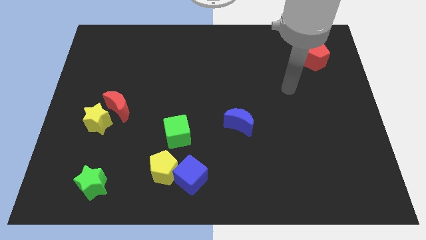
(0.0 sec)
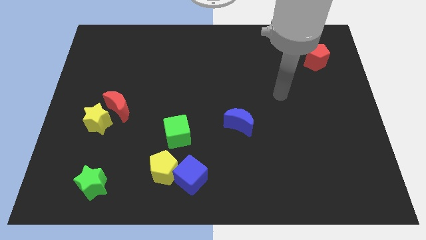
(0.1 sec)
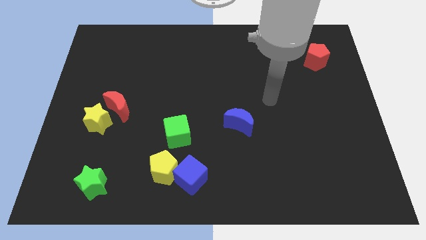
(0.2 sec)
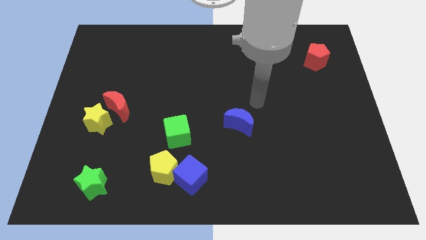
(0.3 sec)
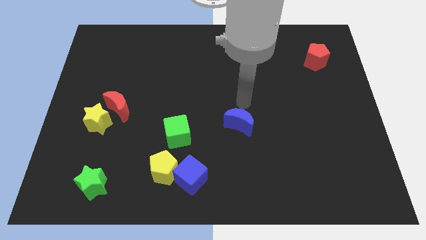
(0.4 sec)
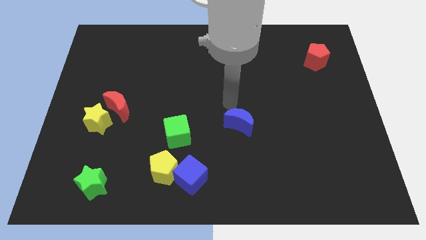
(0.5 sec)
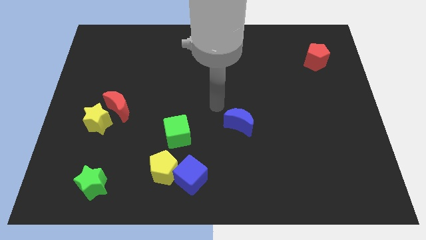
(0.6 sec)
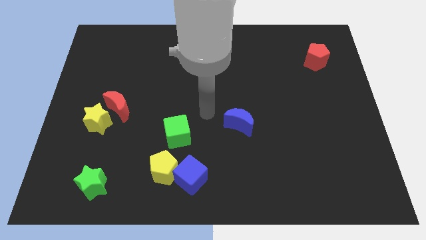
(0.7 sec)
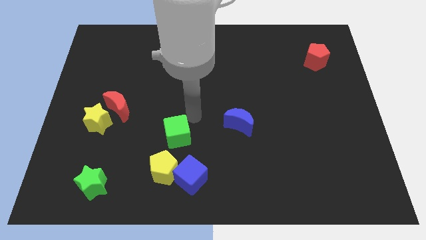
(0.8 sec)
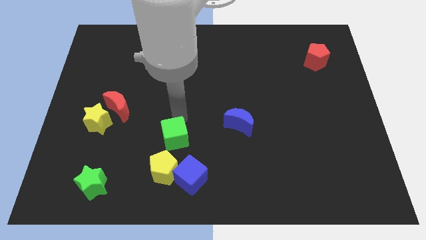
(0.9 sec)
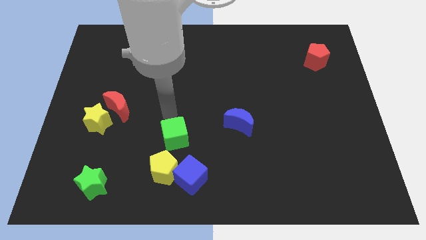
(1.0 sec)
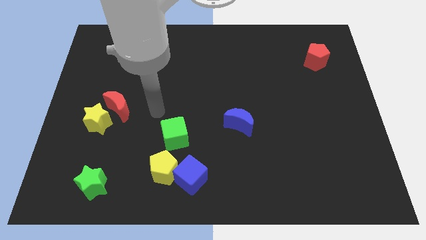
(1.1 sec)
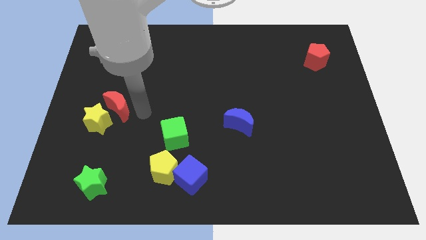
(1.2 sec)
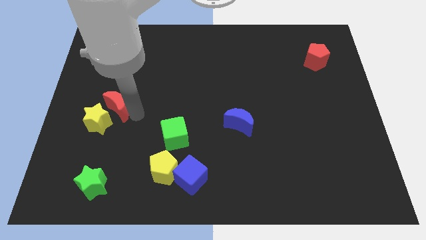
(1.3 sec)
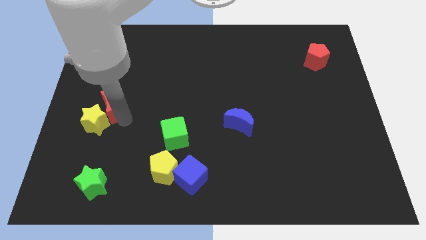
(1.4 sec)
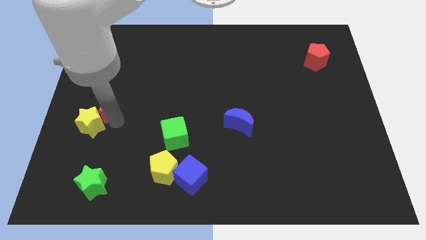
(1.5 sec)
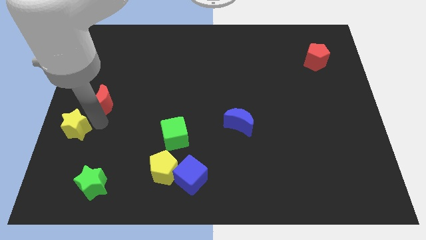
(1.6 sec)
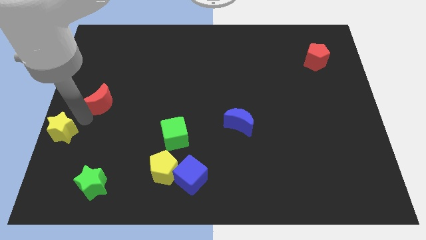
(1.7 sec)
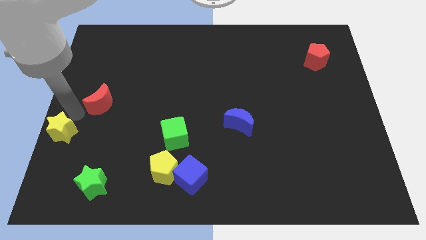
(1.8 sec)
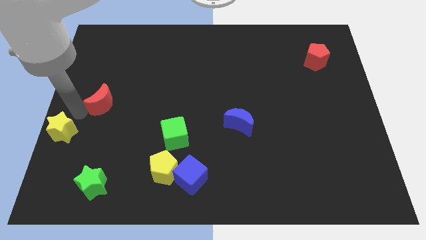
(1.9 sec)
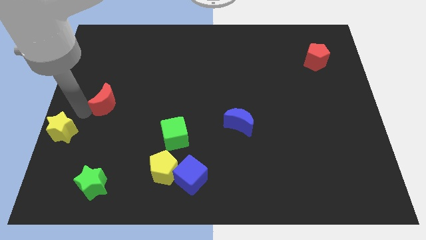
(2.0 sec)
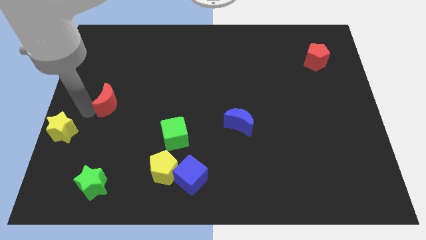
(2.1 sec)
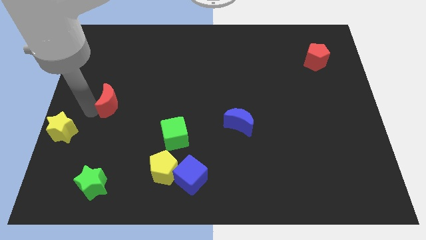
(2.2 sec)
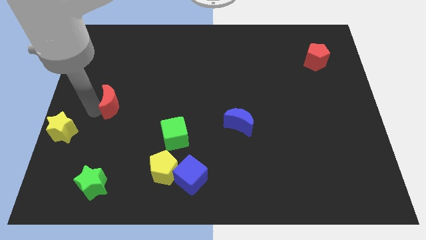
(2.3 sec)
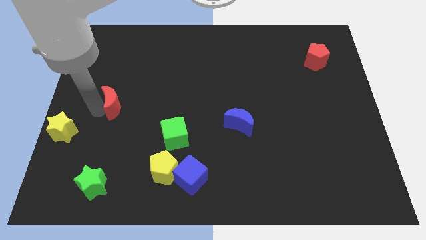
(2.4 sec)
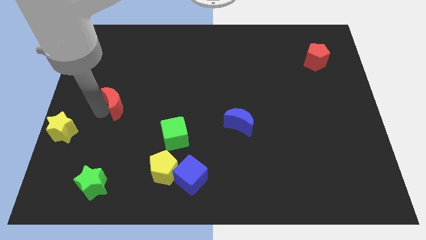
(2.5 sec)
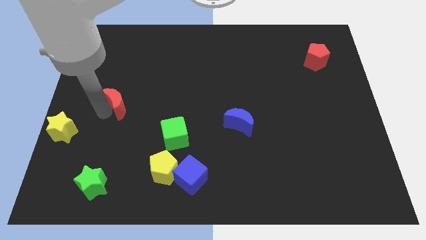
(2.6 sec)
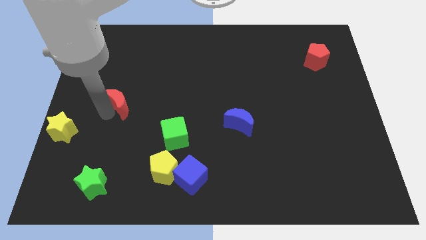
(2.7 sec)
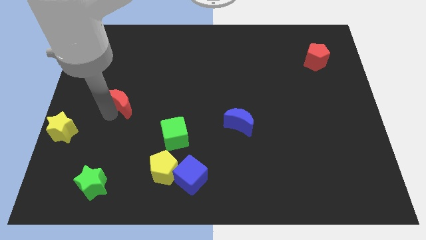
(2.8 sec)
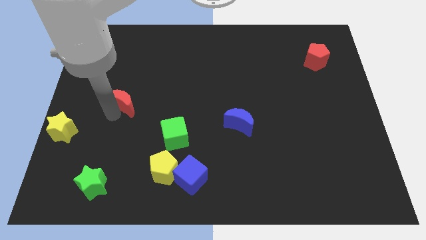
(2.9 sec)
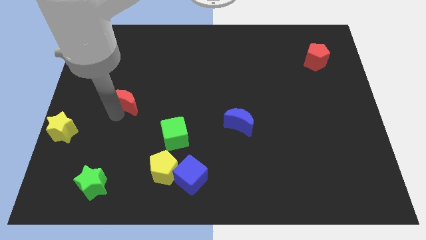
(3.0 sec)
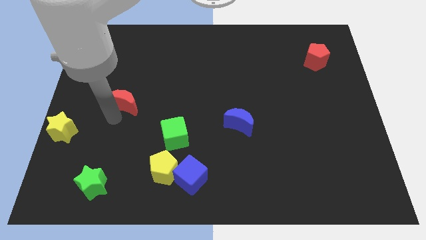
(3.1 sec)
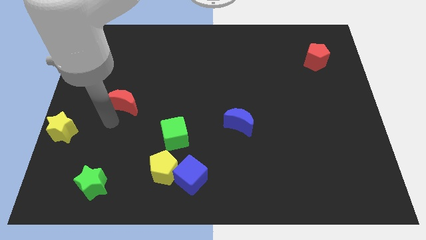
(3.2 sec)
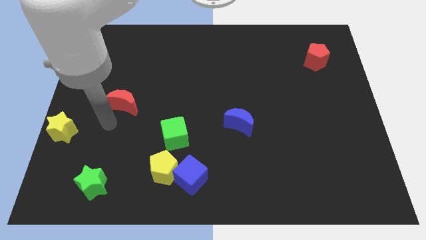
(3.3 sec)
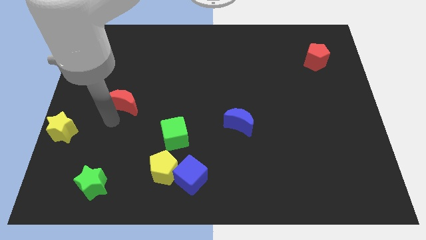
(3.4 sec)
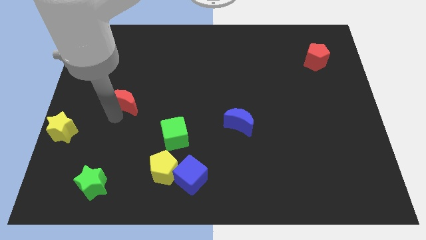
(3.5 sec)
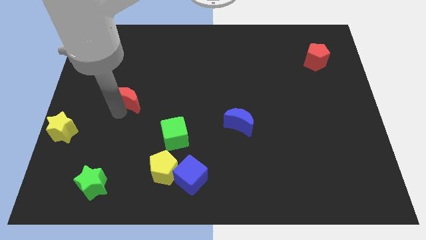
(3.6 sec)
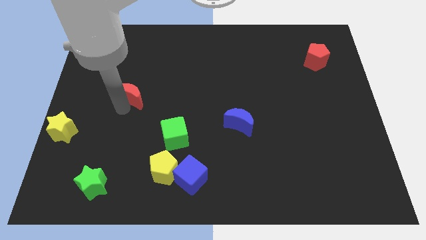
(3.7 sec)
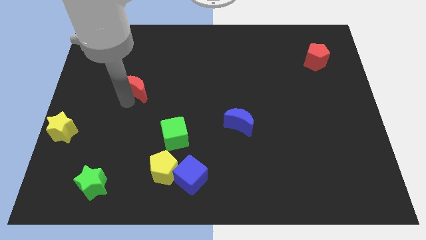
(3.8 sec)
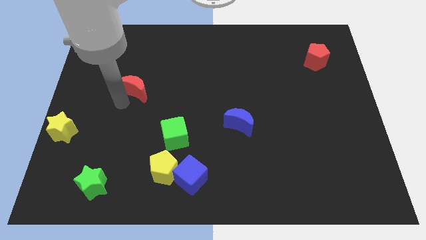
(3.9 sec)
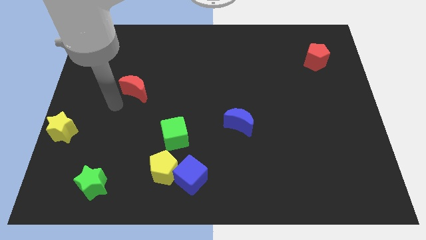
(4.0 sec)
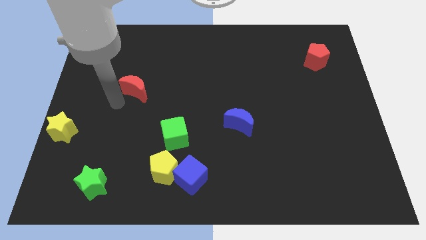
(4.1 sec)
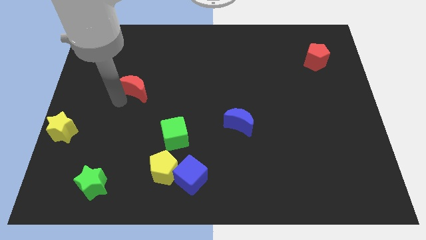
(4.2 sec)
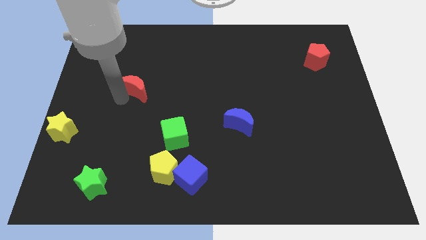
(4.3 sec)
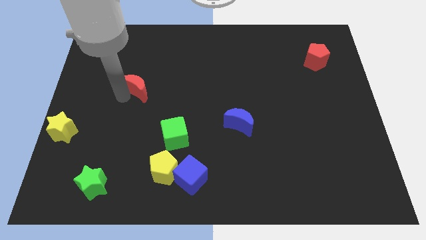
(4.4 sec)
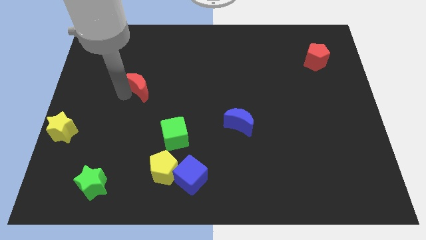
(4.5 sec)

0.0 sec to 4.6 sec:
push the red moon upwards and right a little bit

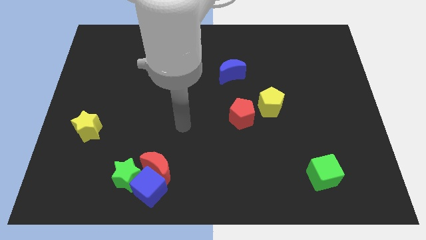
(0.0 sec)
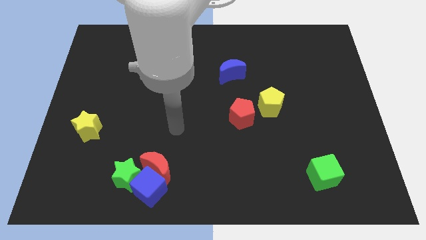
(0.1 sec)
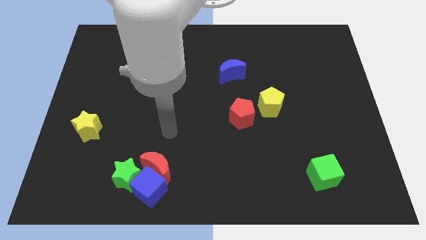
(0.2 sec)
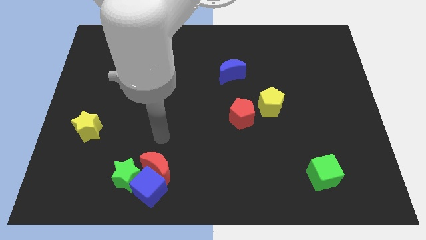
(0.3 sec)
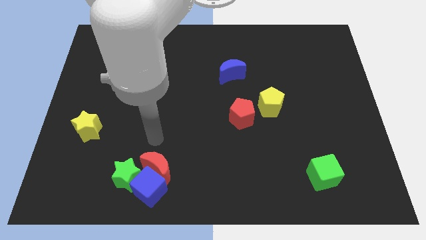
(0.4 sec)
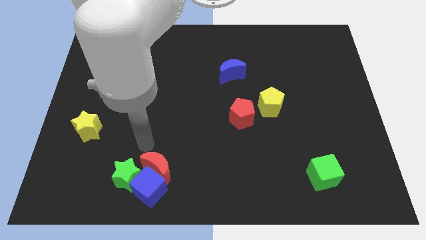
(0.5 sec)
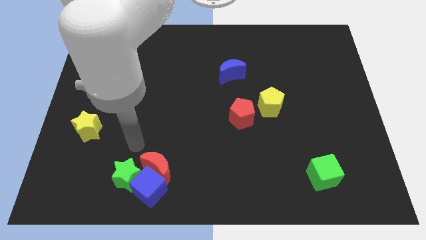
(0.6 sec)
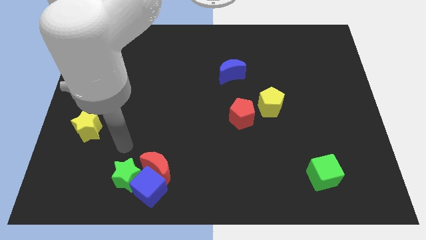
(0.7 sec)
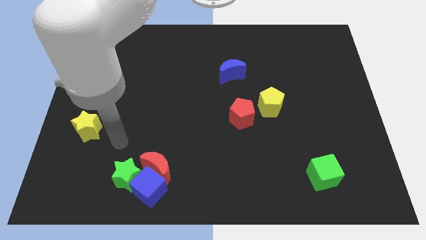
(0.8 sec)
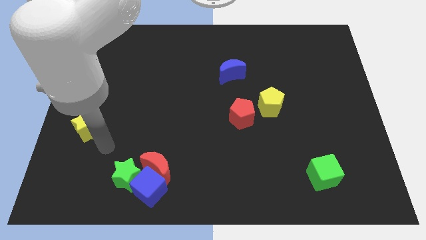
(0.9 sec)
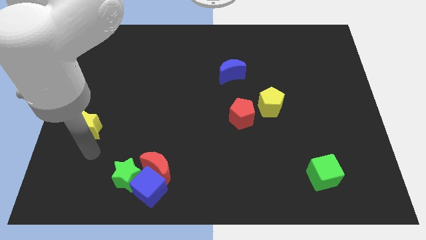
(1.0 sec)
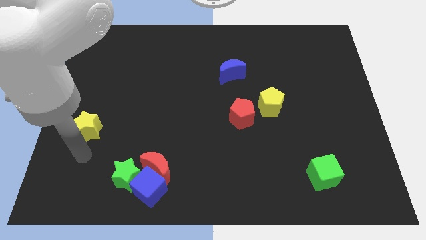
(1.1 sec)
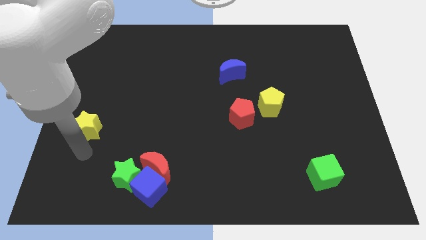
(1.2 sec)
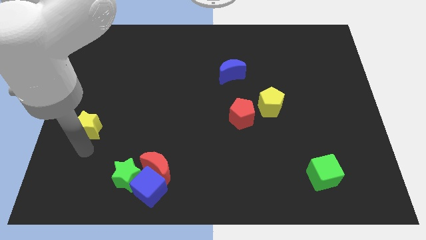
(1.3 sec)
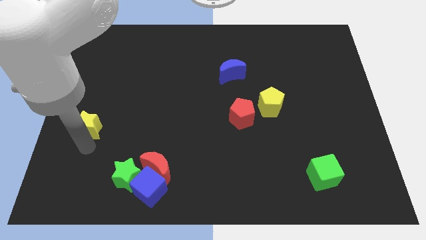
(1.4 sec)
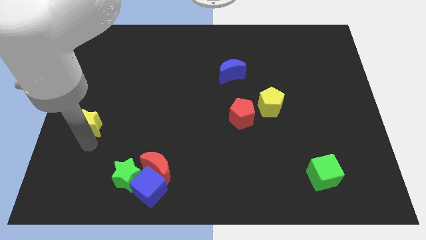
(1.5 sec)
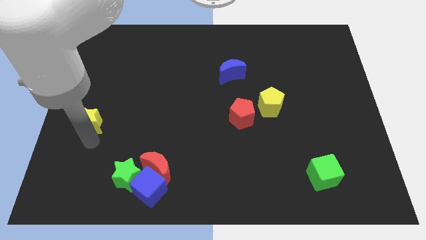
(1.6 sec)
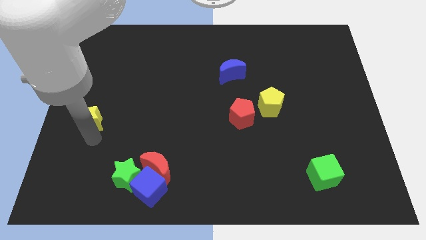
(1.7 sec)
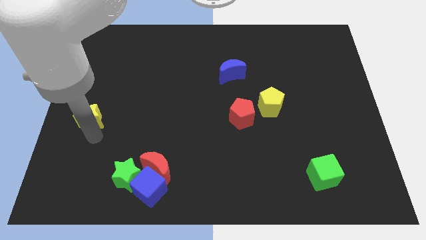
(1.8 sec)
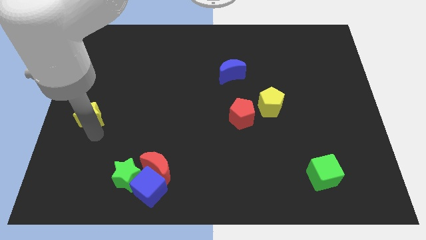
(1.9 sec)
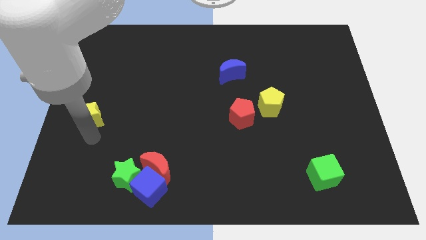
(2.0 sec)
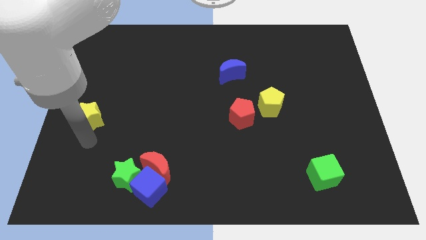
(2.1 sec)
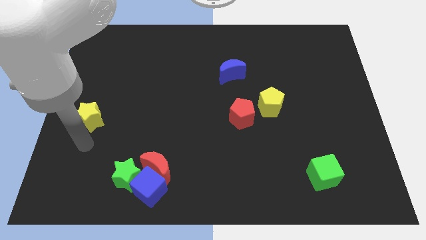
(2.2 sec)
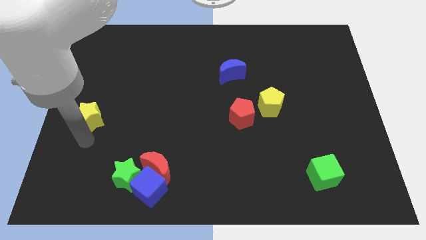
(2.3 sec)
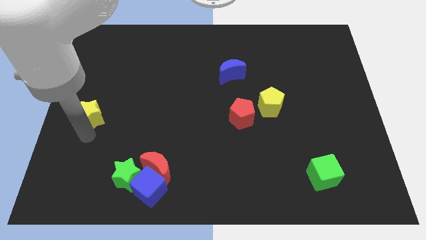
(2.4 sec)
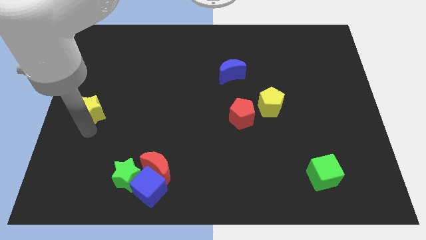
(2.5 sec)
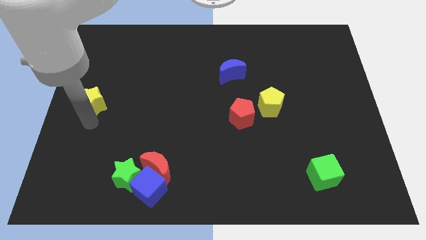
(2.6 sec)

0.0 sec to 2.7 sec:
move the yellow star up a little bit

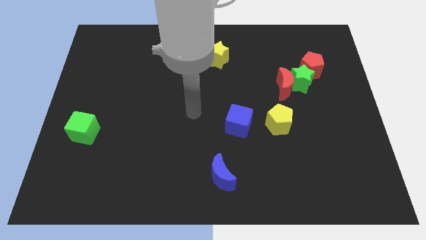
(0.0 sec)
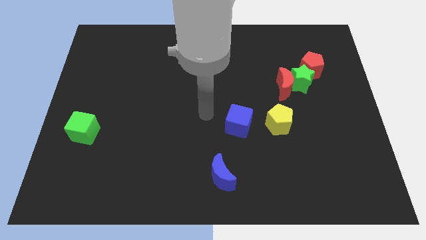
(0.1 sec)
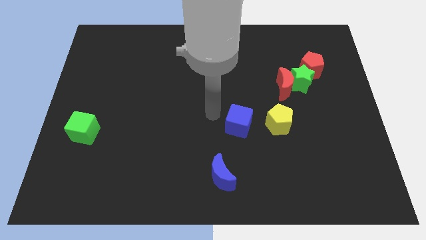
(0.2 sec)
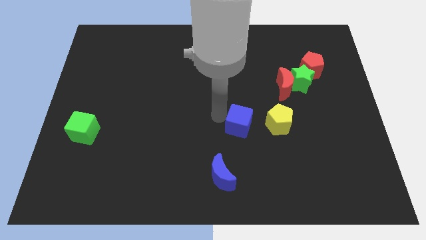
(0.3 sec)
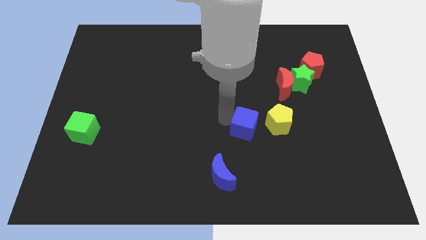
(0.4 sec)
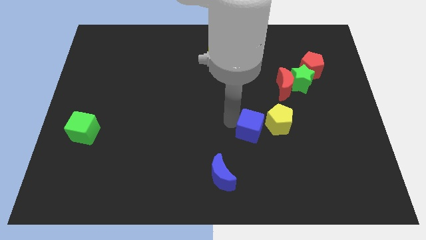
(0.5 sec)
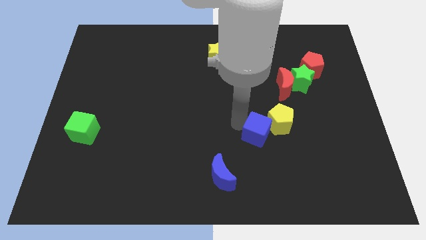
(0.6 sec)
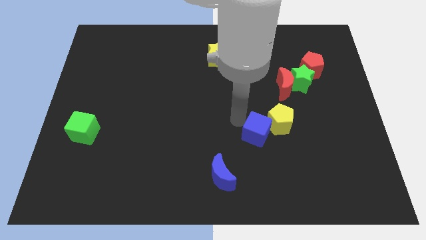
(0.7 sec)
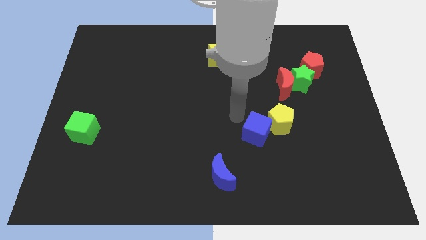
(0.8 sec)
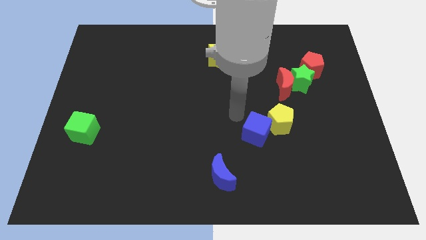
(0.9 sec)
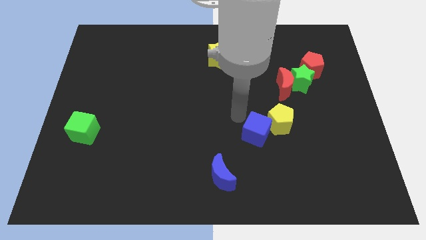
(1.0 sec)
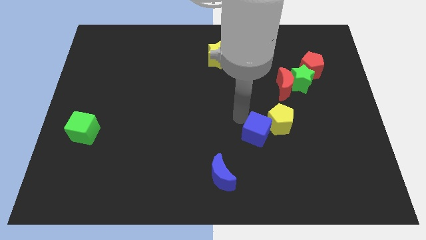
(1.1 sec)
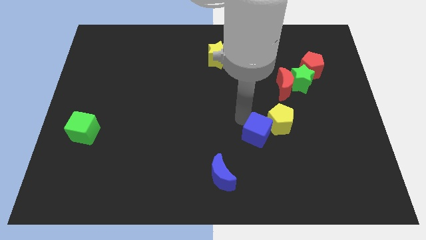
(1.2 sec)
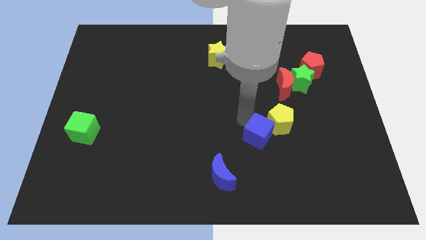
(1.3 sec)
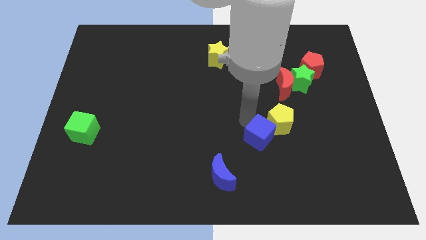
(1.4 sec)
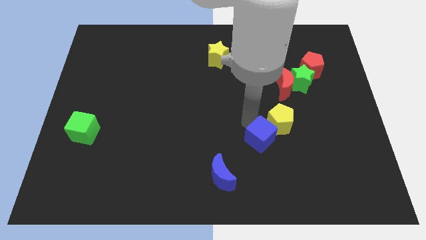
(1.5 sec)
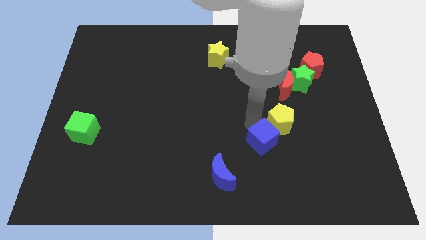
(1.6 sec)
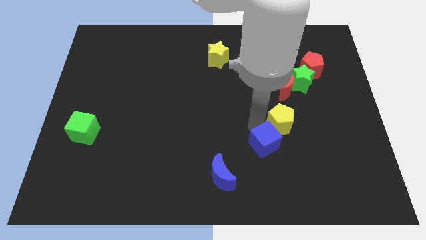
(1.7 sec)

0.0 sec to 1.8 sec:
move the blue cube diagonally downwards and right slightly
